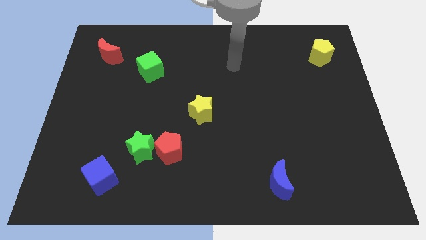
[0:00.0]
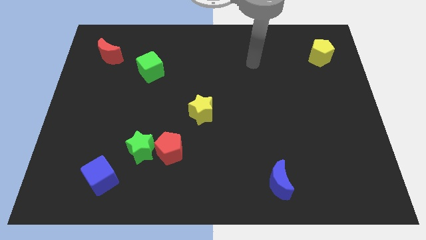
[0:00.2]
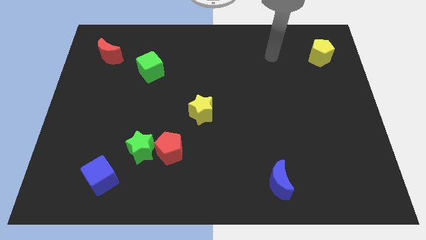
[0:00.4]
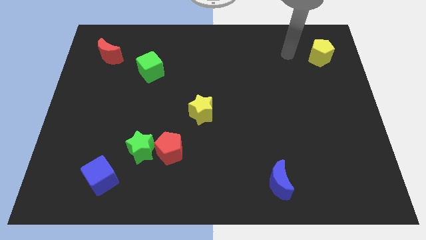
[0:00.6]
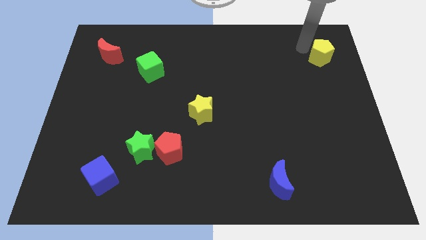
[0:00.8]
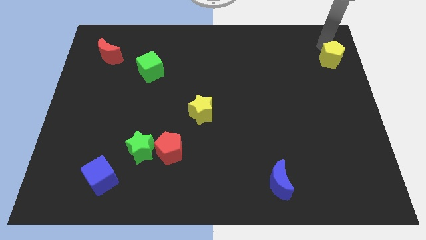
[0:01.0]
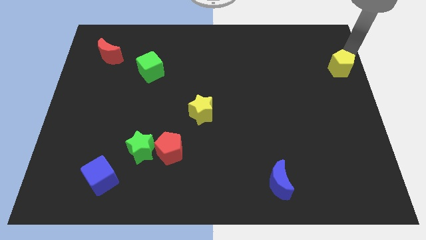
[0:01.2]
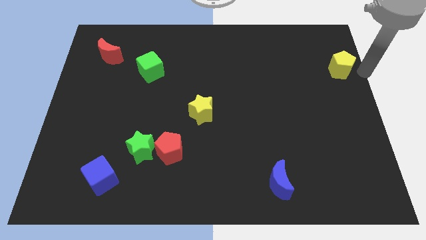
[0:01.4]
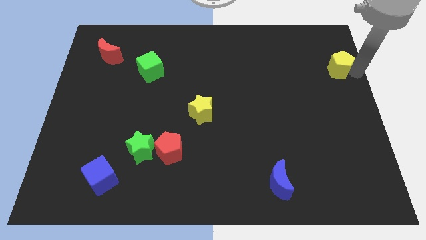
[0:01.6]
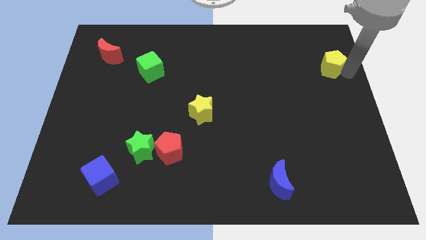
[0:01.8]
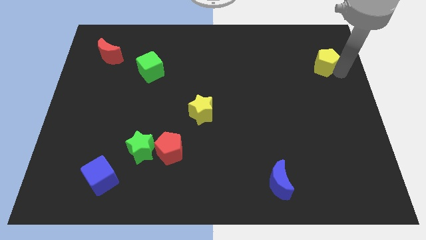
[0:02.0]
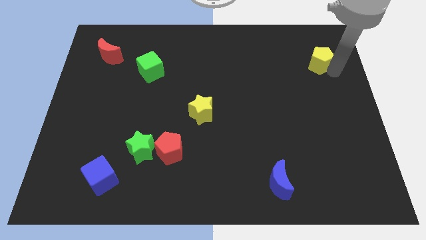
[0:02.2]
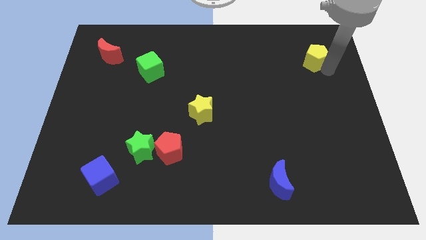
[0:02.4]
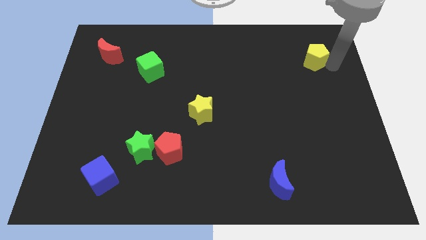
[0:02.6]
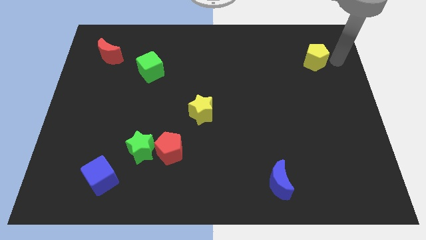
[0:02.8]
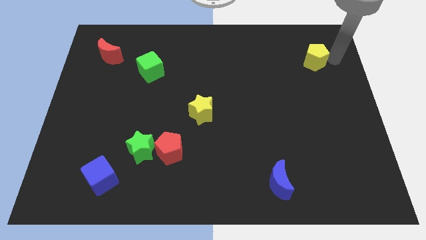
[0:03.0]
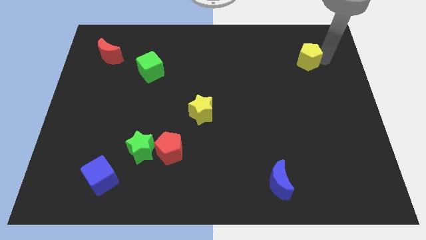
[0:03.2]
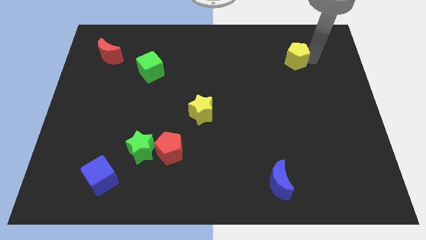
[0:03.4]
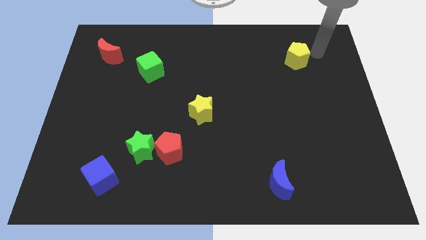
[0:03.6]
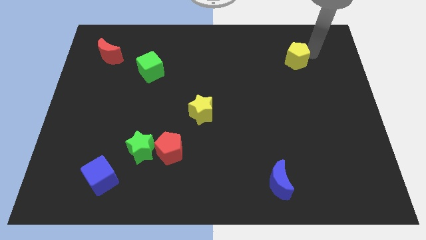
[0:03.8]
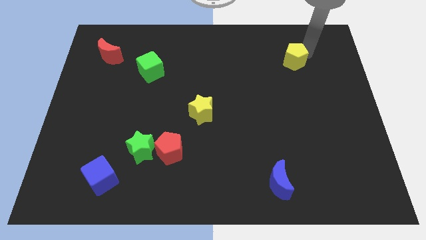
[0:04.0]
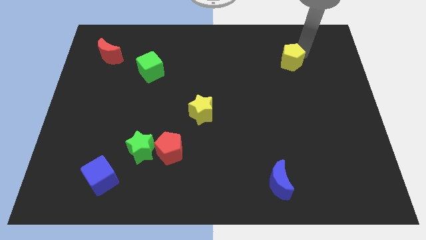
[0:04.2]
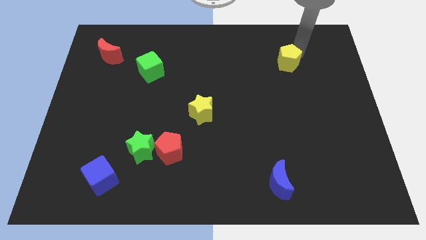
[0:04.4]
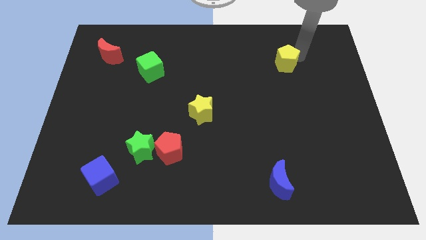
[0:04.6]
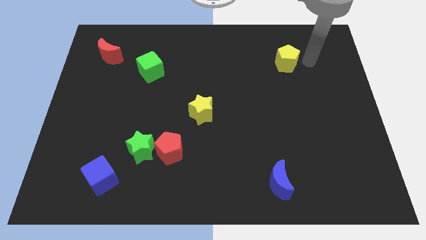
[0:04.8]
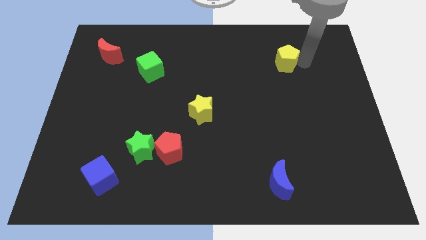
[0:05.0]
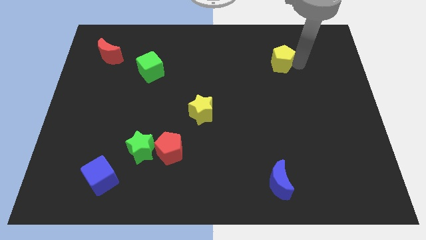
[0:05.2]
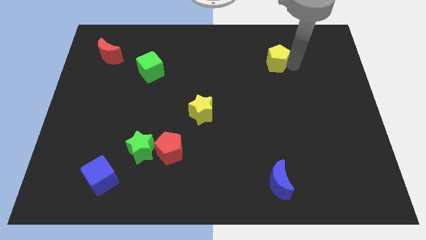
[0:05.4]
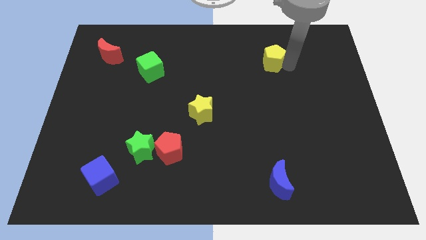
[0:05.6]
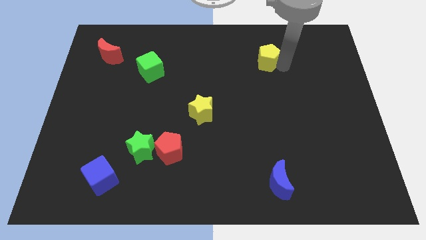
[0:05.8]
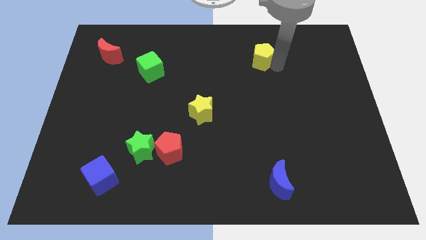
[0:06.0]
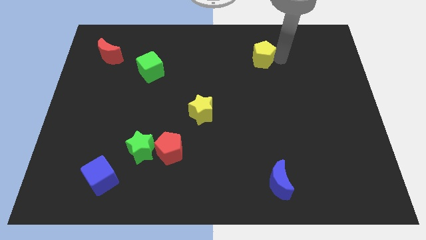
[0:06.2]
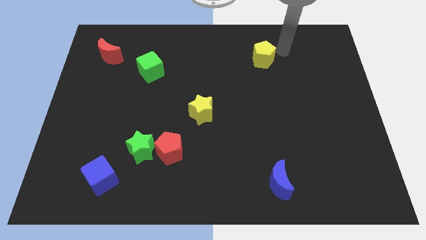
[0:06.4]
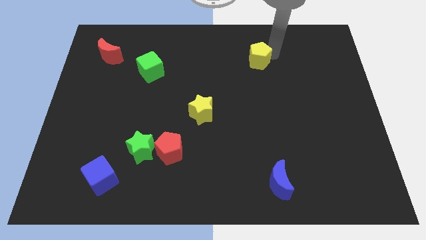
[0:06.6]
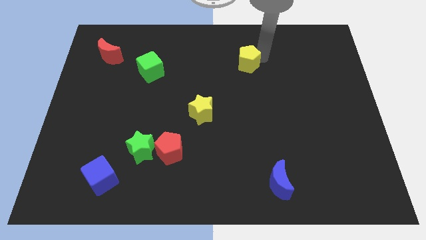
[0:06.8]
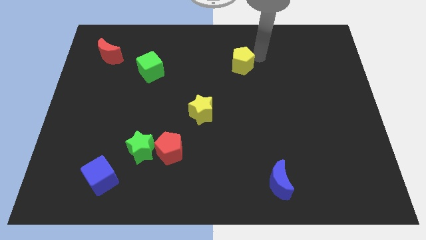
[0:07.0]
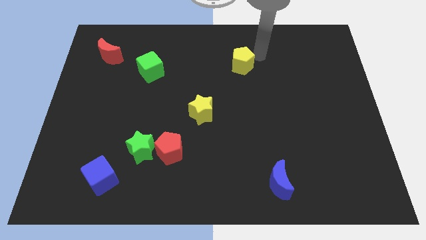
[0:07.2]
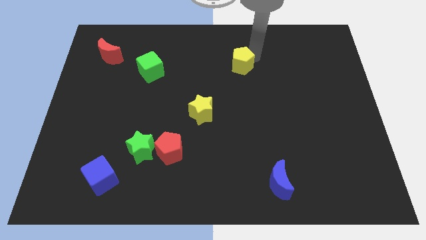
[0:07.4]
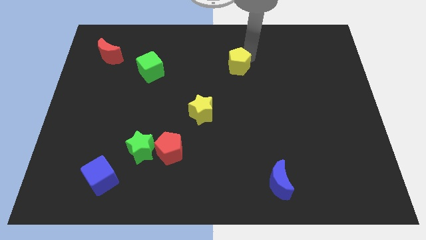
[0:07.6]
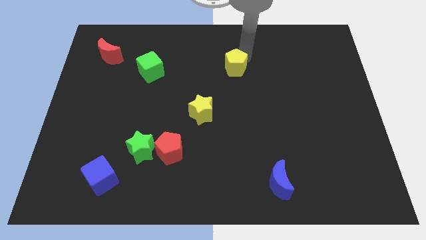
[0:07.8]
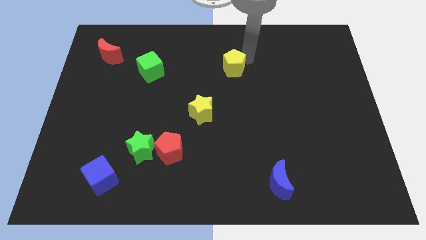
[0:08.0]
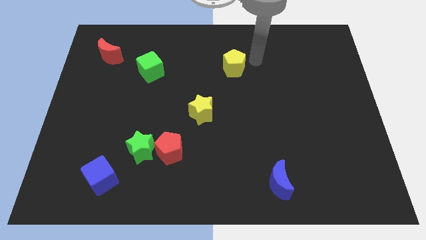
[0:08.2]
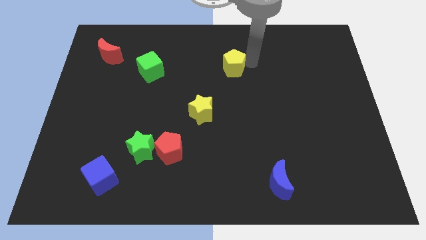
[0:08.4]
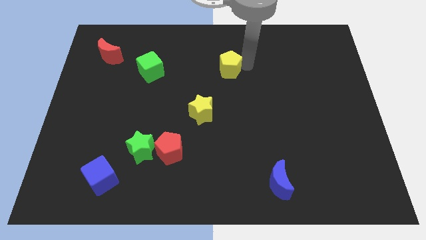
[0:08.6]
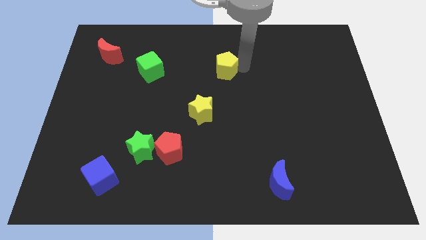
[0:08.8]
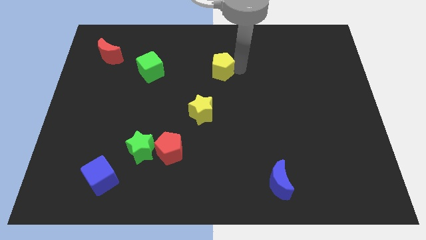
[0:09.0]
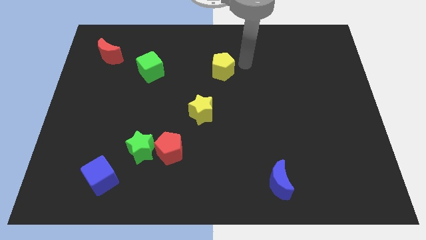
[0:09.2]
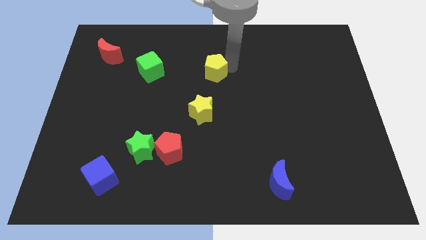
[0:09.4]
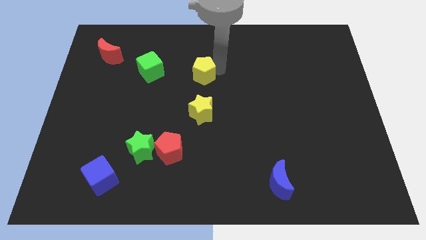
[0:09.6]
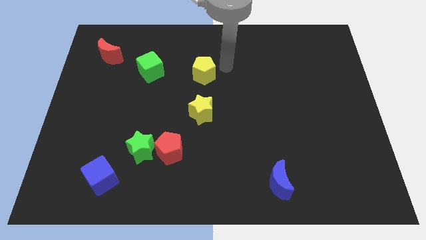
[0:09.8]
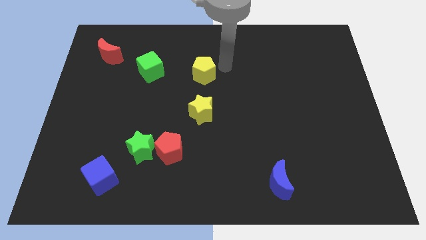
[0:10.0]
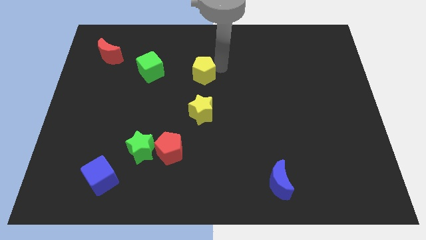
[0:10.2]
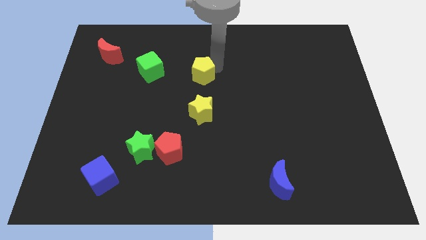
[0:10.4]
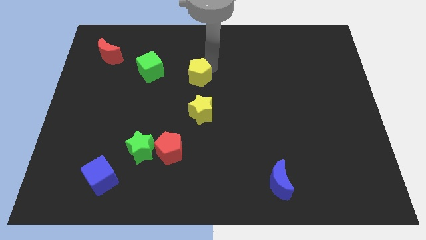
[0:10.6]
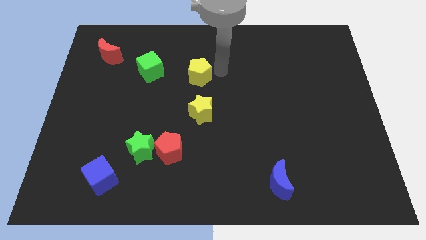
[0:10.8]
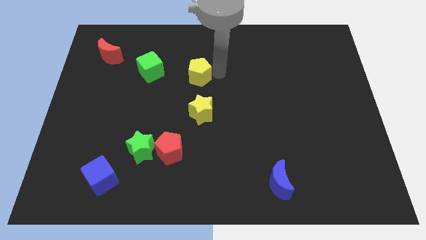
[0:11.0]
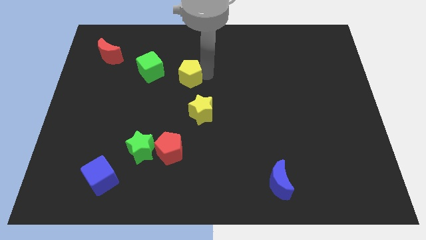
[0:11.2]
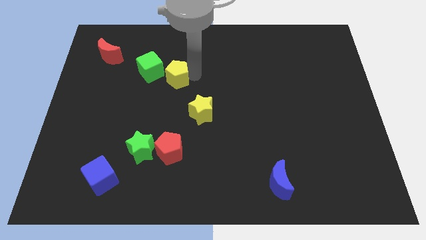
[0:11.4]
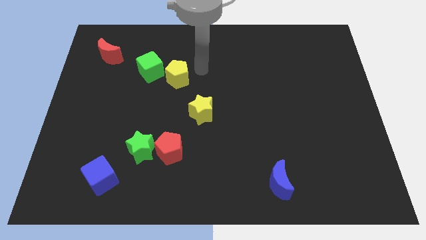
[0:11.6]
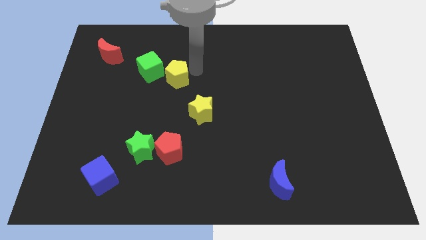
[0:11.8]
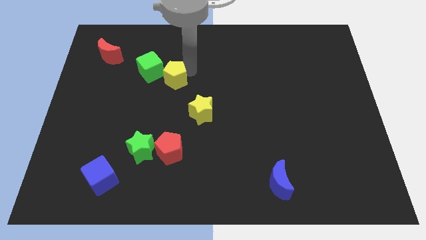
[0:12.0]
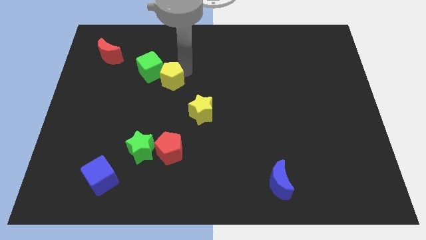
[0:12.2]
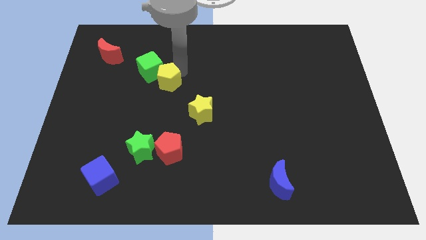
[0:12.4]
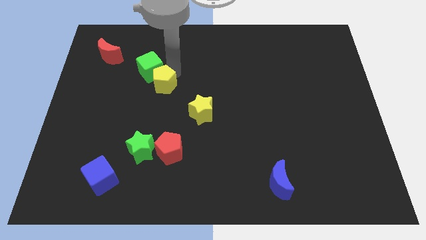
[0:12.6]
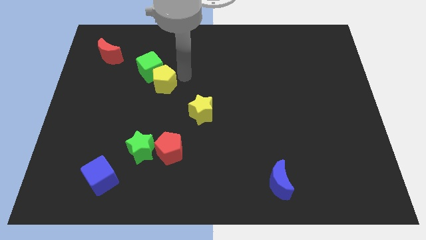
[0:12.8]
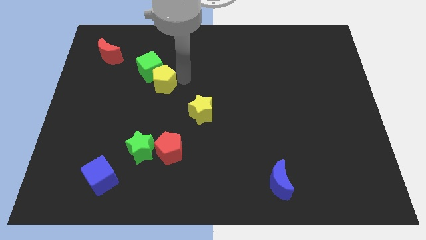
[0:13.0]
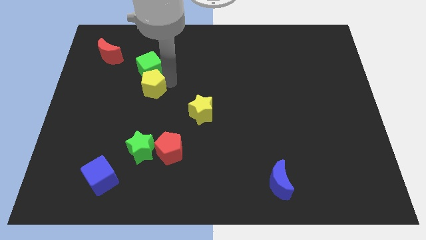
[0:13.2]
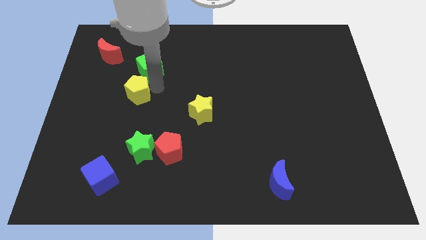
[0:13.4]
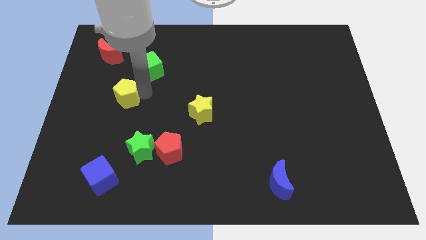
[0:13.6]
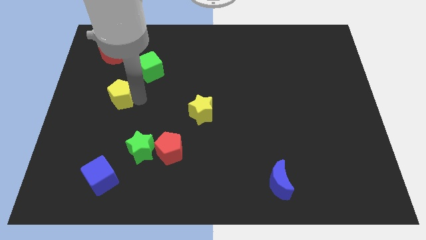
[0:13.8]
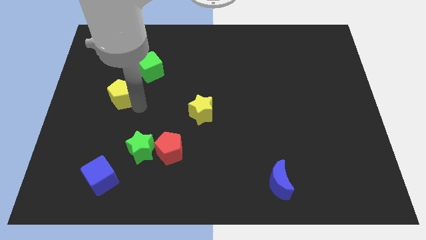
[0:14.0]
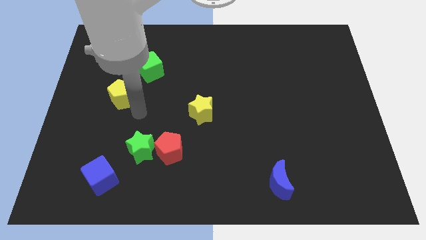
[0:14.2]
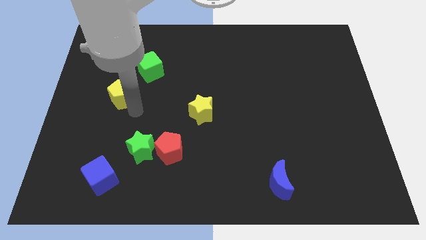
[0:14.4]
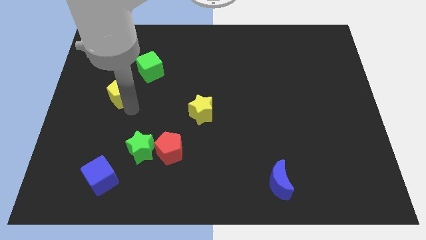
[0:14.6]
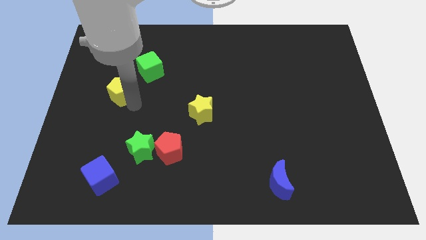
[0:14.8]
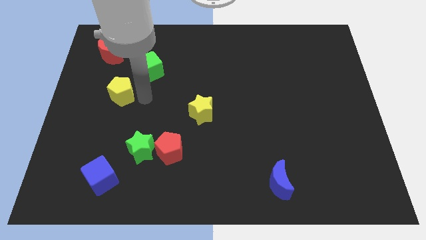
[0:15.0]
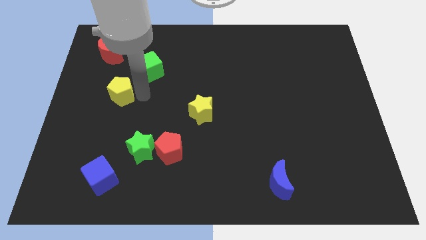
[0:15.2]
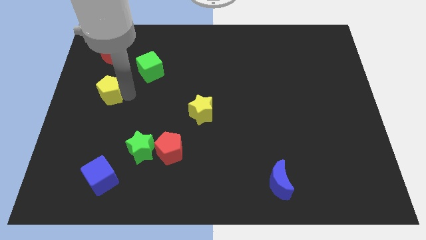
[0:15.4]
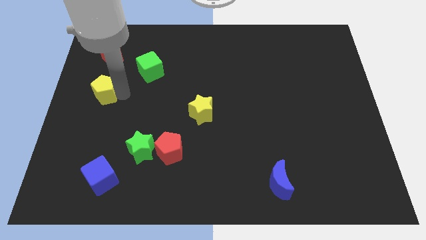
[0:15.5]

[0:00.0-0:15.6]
slide the yellow pentagon to the center left
